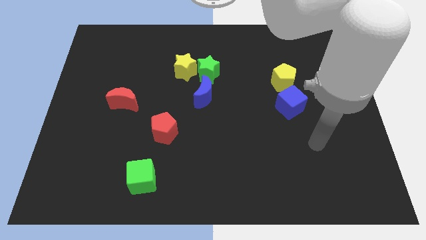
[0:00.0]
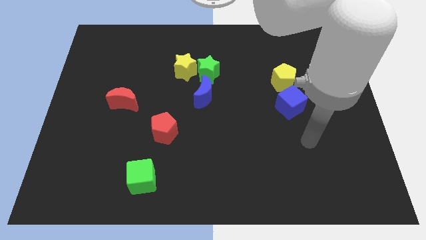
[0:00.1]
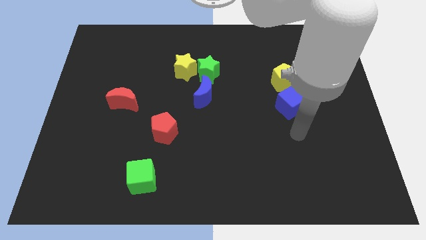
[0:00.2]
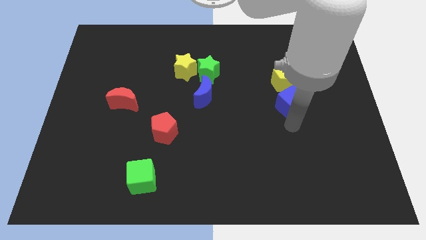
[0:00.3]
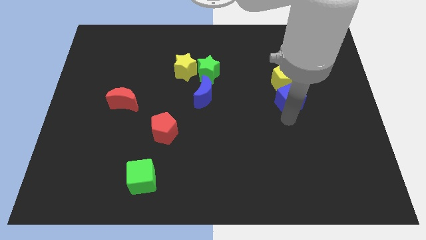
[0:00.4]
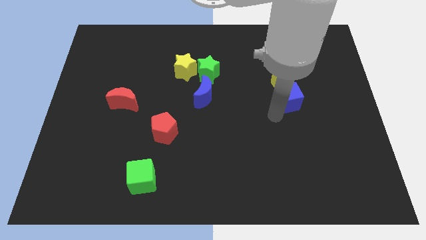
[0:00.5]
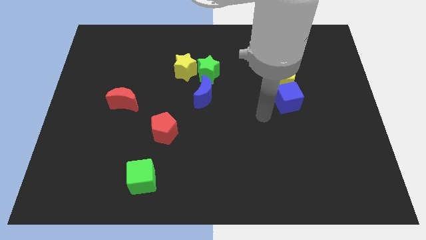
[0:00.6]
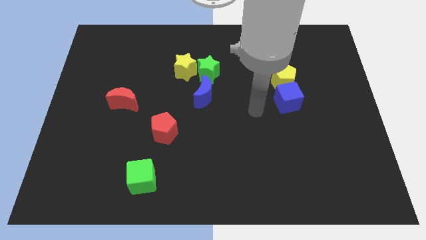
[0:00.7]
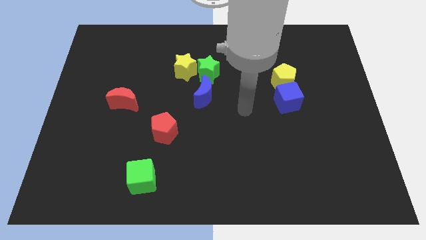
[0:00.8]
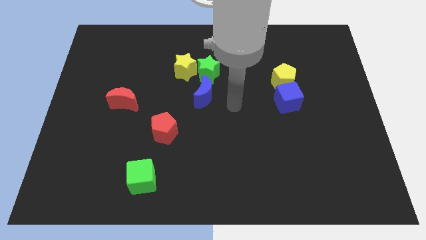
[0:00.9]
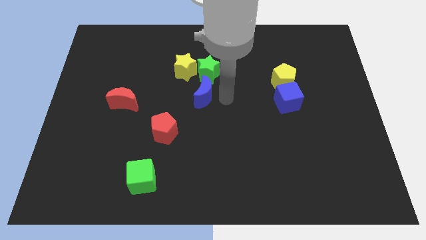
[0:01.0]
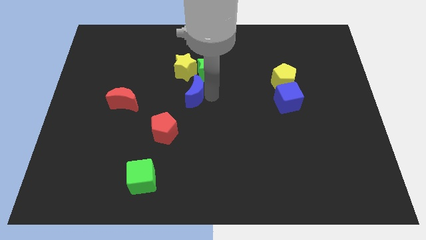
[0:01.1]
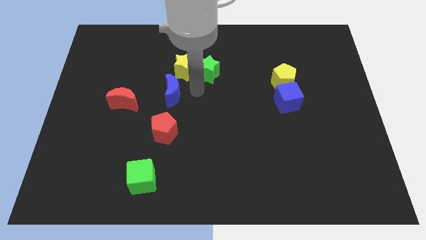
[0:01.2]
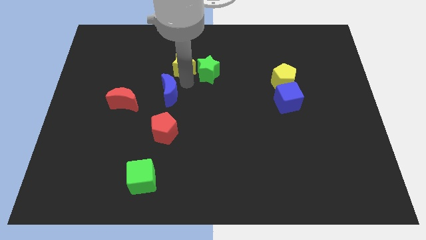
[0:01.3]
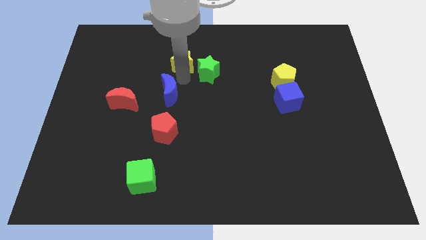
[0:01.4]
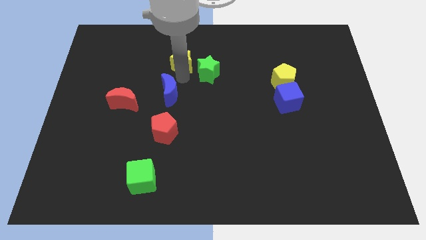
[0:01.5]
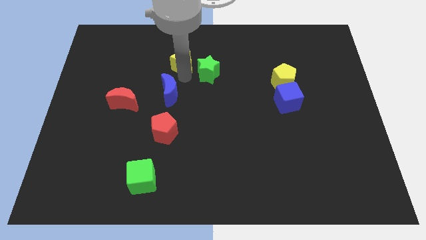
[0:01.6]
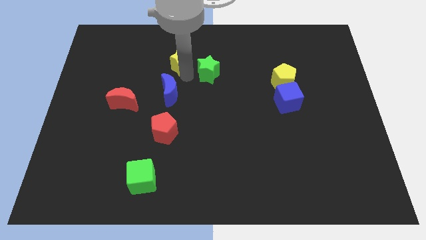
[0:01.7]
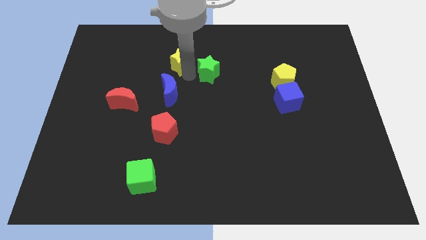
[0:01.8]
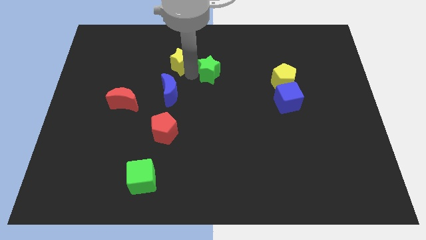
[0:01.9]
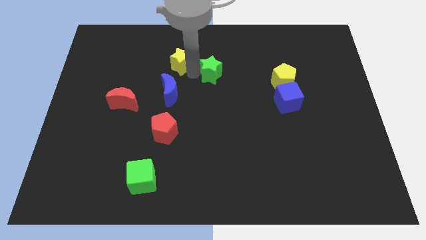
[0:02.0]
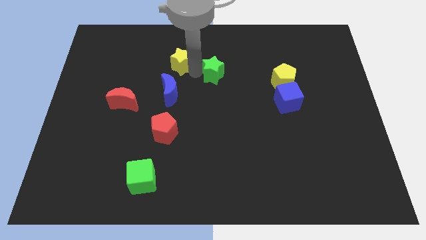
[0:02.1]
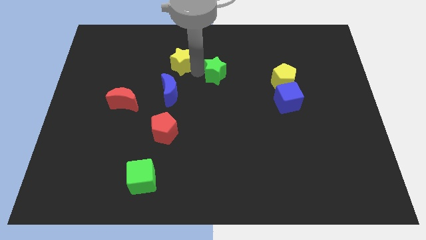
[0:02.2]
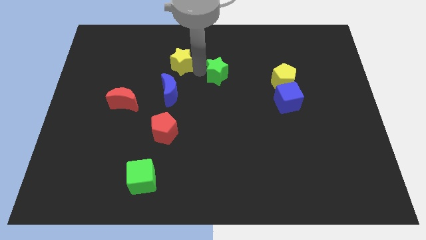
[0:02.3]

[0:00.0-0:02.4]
pull the green star apart from the yellow star and blue moon

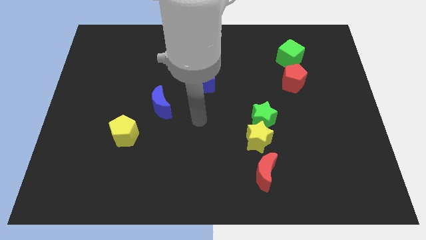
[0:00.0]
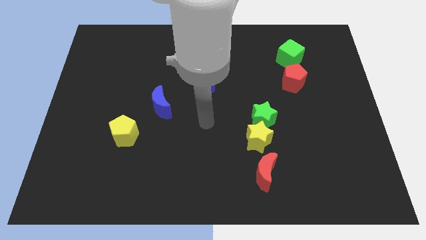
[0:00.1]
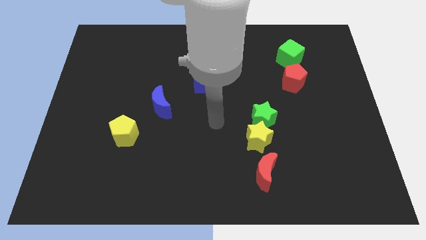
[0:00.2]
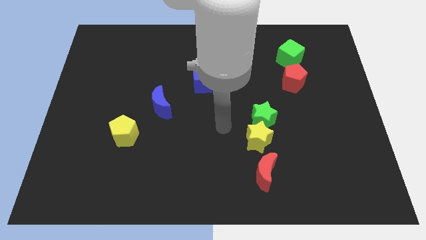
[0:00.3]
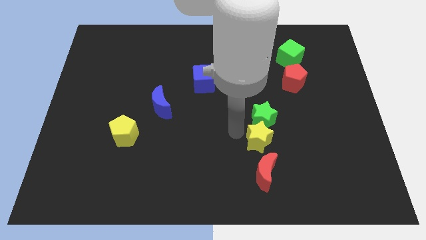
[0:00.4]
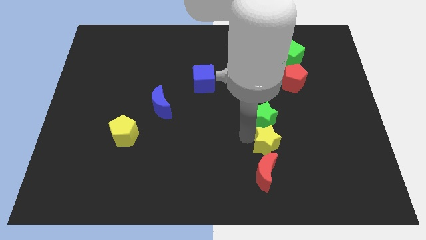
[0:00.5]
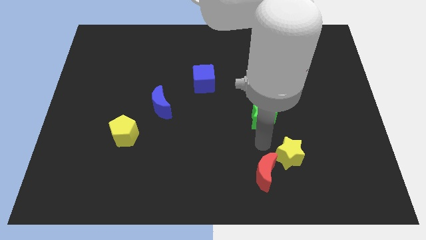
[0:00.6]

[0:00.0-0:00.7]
separate the green star from the yellow star

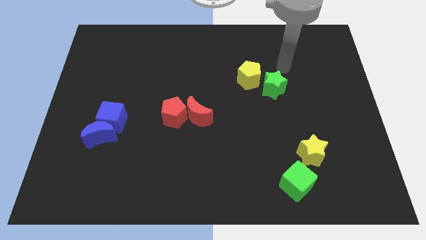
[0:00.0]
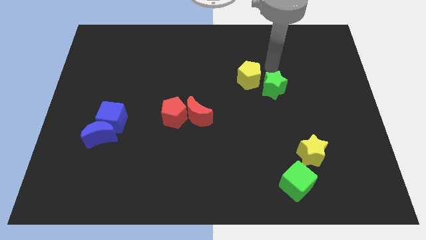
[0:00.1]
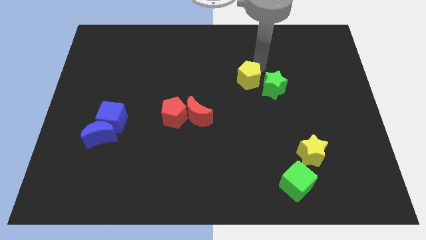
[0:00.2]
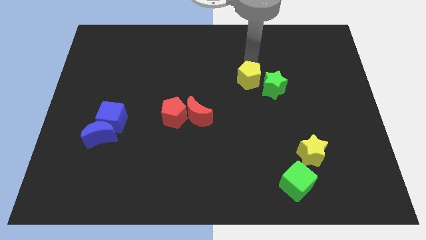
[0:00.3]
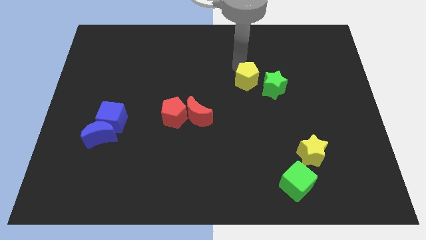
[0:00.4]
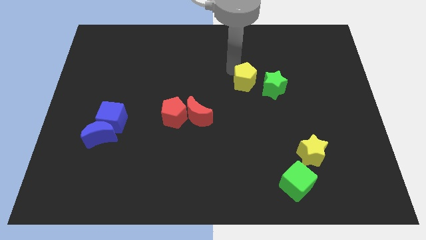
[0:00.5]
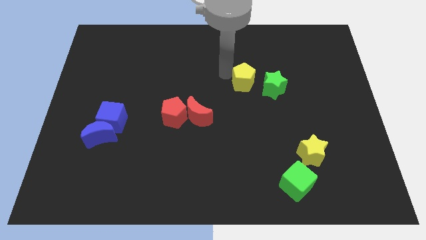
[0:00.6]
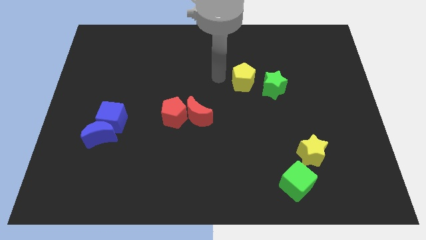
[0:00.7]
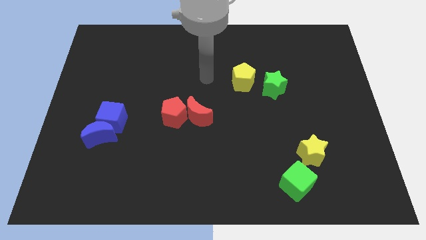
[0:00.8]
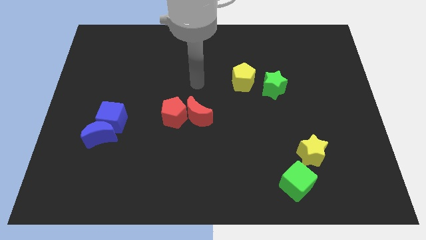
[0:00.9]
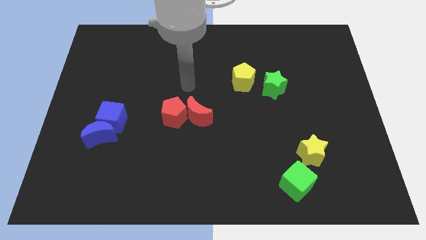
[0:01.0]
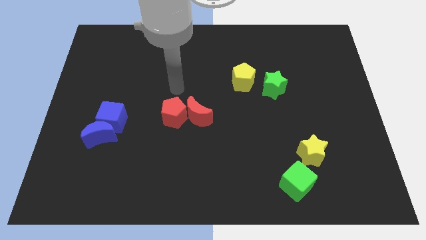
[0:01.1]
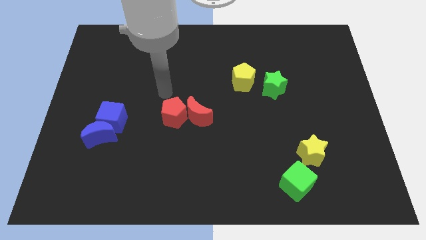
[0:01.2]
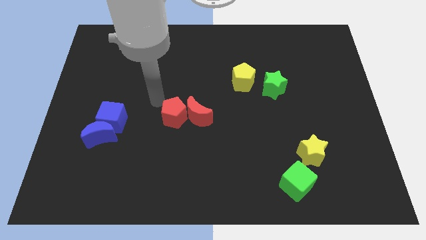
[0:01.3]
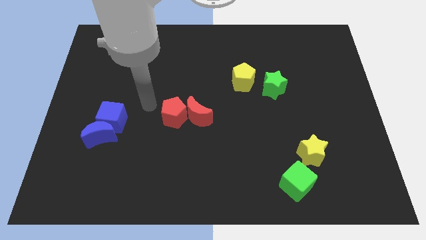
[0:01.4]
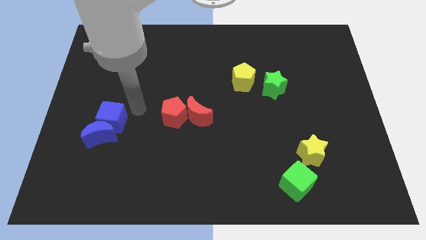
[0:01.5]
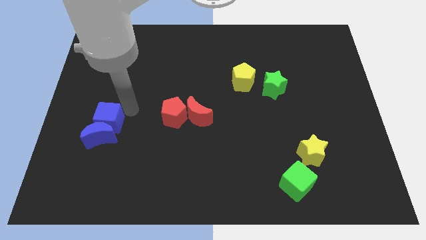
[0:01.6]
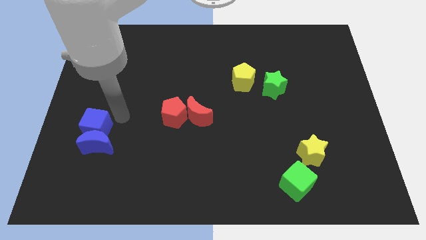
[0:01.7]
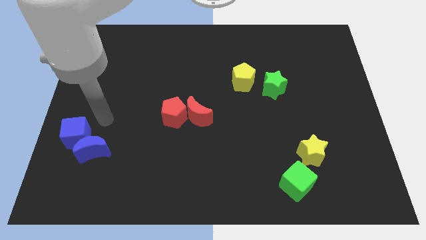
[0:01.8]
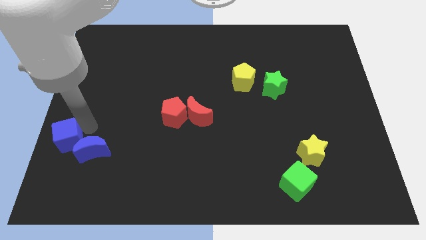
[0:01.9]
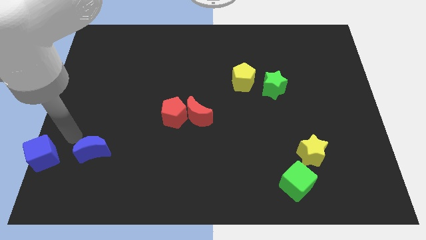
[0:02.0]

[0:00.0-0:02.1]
pull the blue moon apart from the blue cube

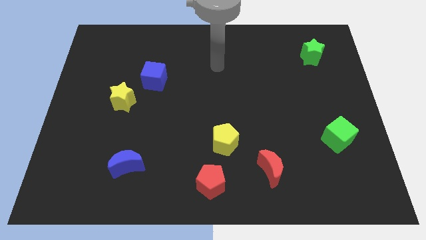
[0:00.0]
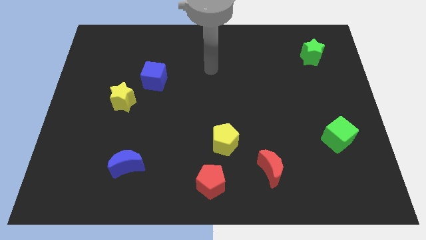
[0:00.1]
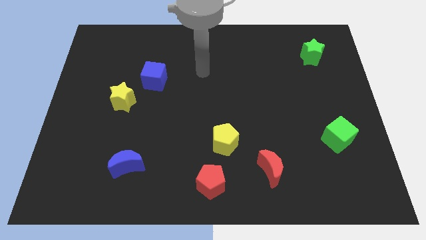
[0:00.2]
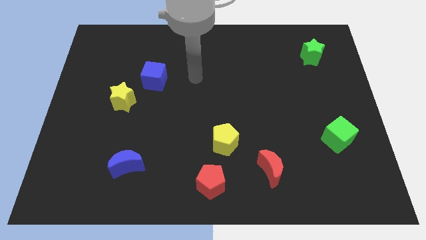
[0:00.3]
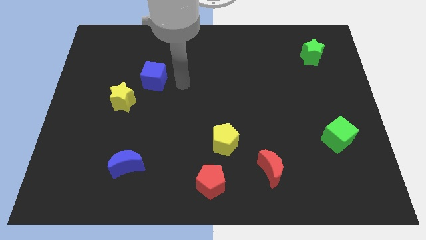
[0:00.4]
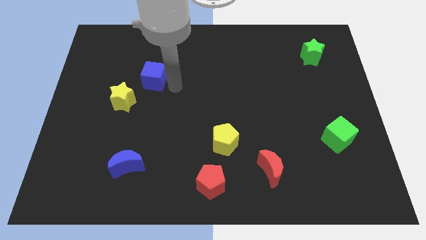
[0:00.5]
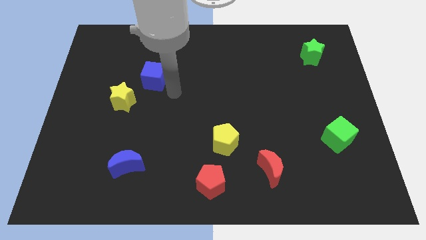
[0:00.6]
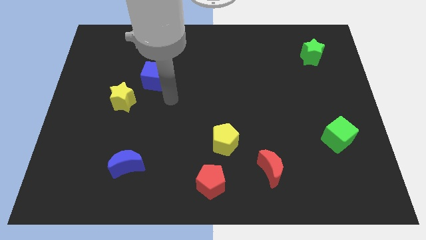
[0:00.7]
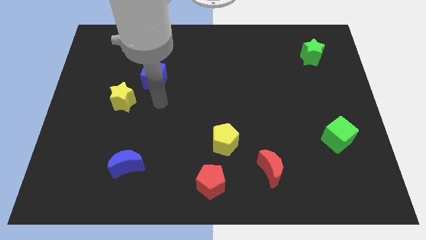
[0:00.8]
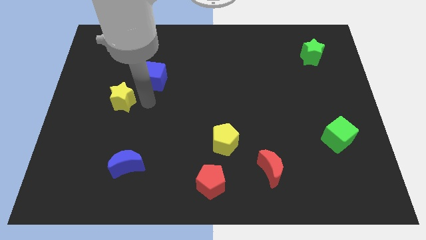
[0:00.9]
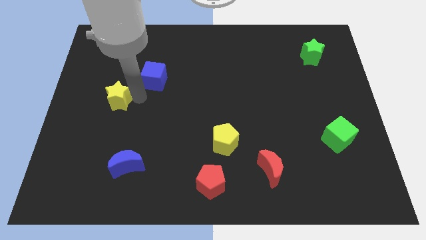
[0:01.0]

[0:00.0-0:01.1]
separate the blue cube from the yellow star

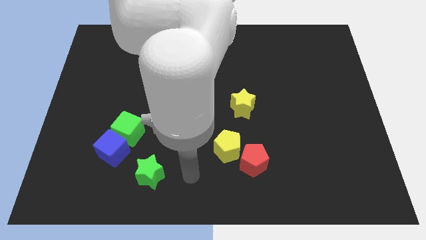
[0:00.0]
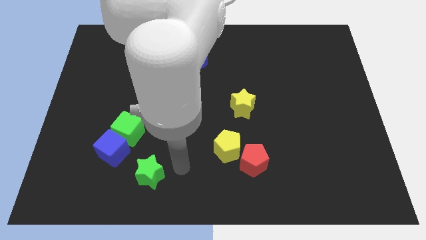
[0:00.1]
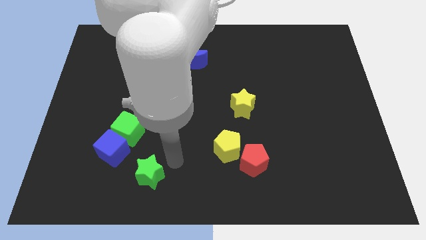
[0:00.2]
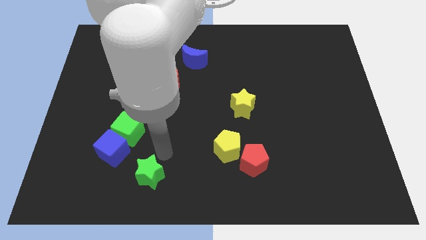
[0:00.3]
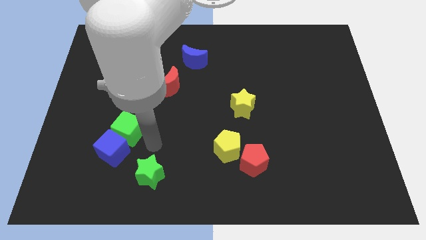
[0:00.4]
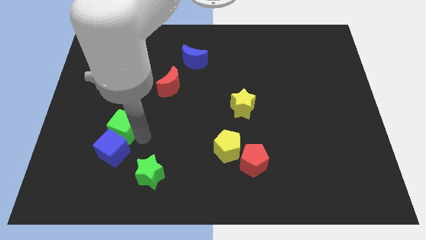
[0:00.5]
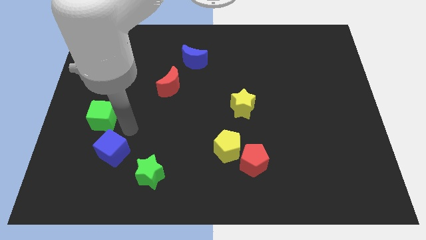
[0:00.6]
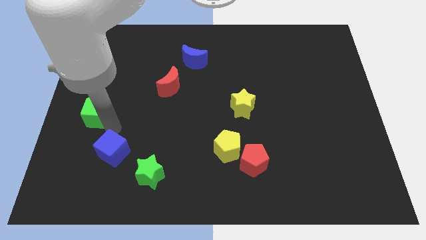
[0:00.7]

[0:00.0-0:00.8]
separate the blue cube from the green cube

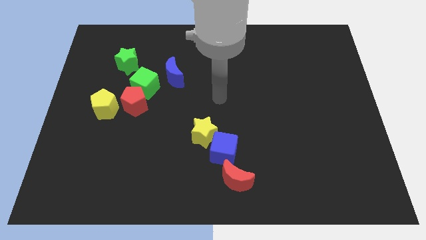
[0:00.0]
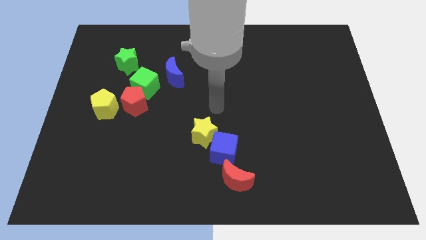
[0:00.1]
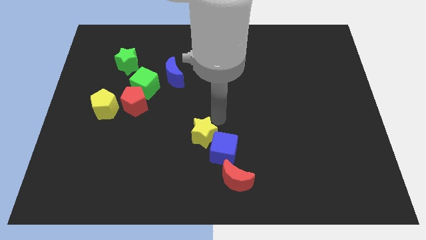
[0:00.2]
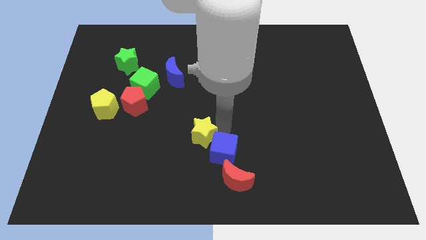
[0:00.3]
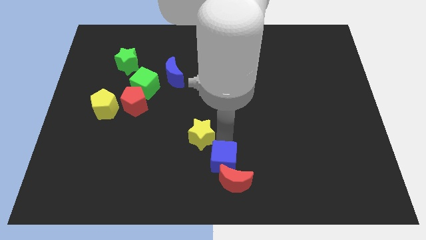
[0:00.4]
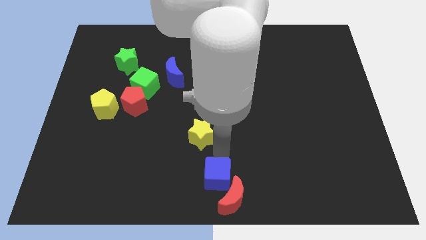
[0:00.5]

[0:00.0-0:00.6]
move the yellow star away from the blue cube

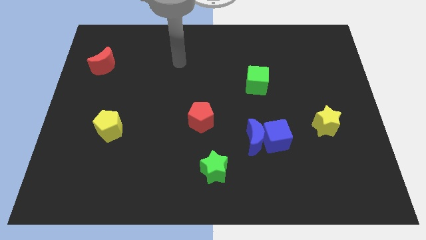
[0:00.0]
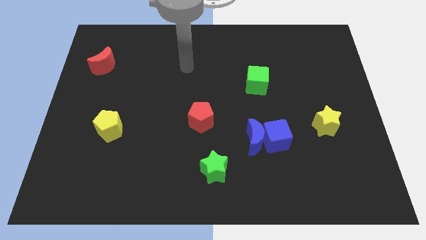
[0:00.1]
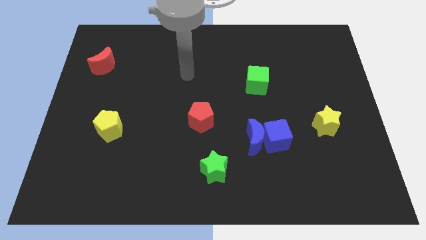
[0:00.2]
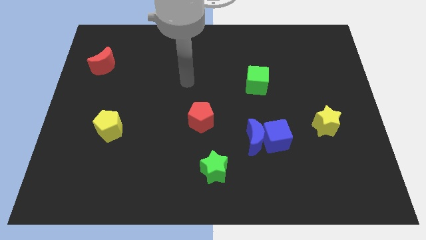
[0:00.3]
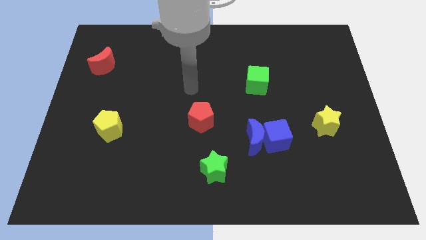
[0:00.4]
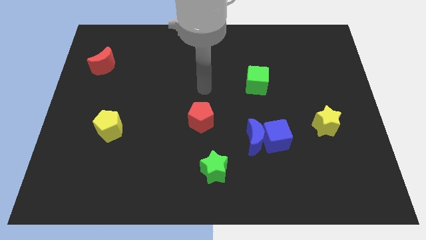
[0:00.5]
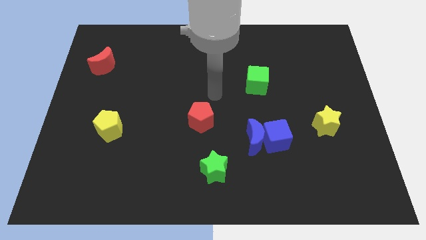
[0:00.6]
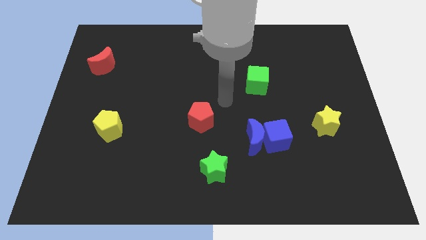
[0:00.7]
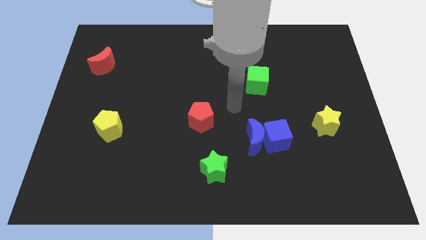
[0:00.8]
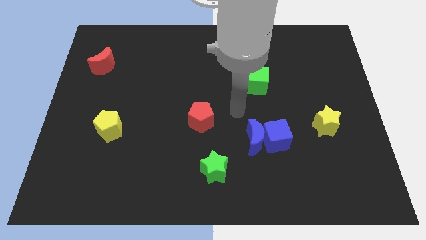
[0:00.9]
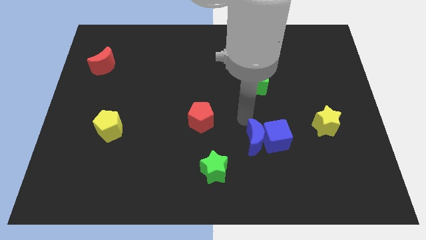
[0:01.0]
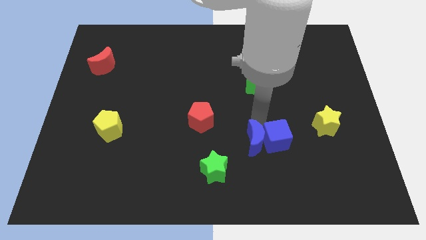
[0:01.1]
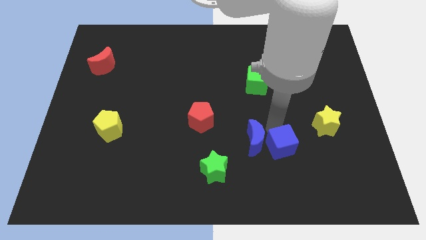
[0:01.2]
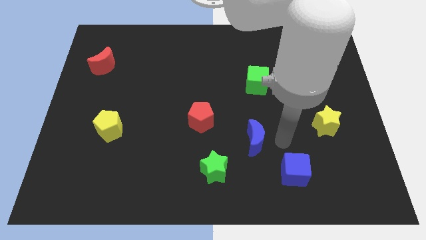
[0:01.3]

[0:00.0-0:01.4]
separate the blue moon from the blue cube

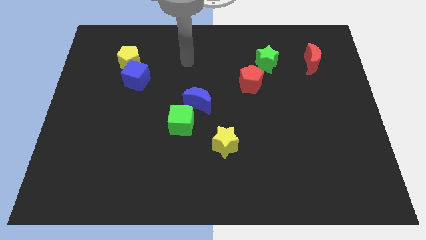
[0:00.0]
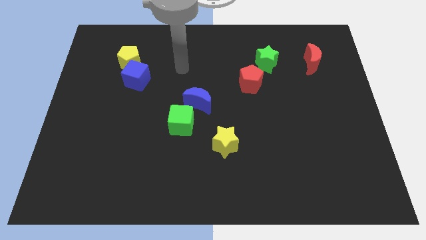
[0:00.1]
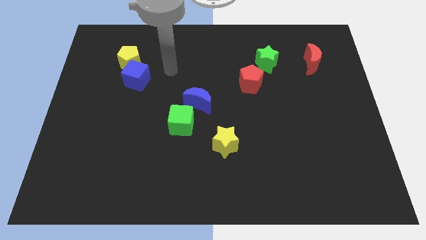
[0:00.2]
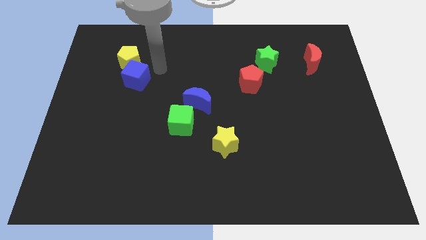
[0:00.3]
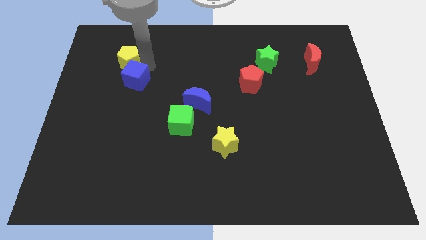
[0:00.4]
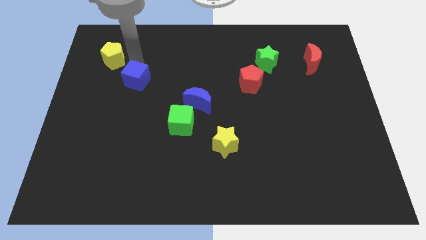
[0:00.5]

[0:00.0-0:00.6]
move the blue cube away from the yellow pentagon
